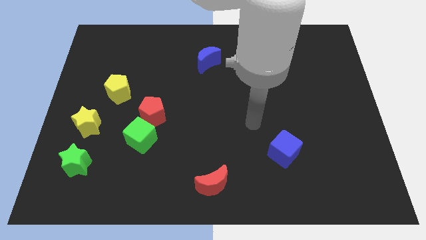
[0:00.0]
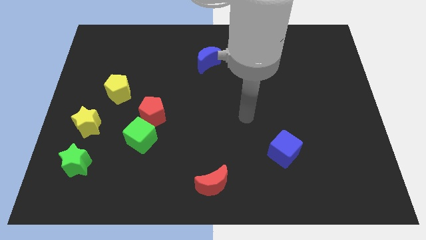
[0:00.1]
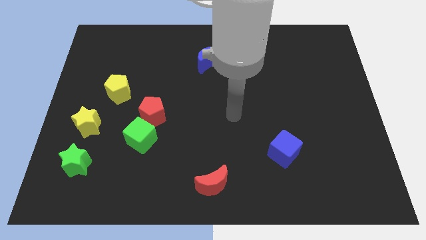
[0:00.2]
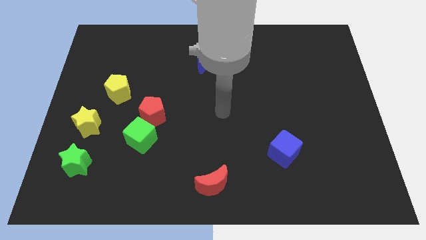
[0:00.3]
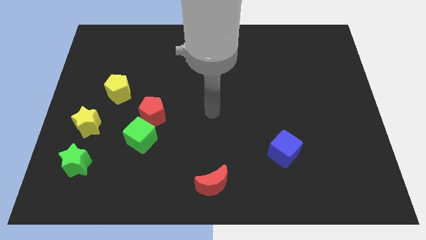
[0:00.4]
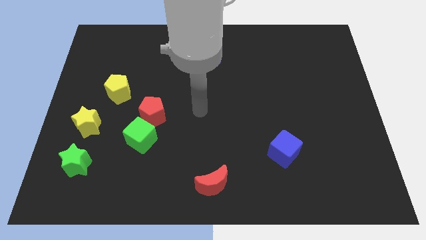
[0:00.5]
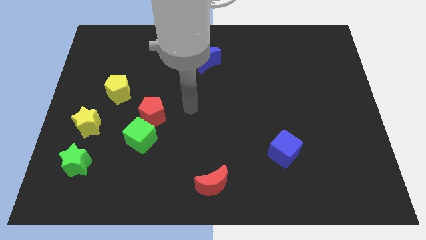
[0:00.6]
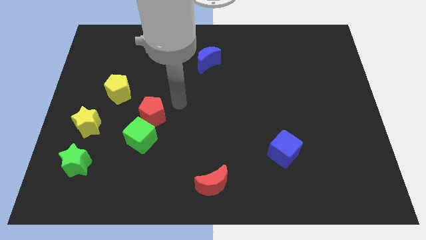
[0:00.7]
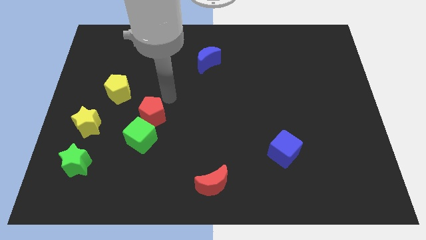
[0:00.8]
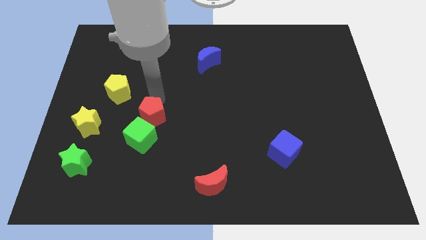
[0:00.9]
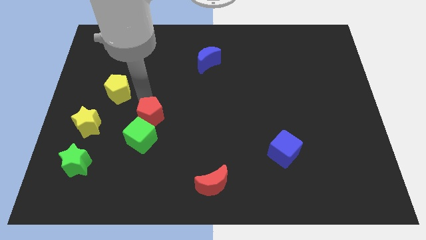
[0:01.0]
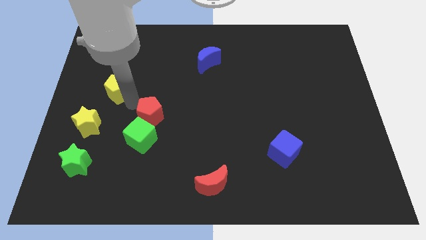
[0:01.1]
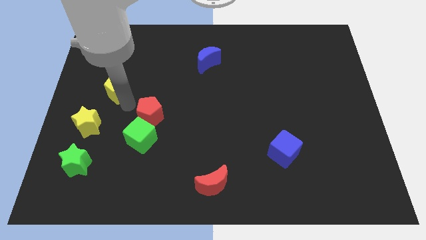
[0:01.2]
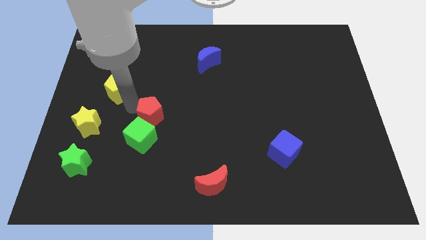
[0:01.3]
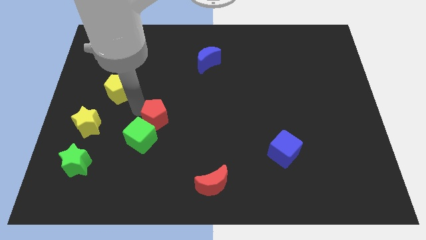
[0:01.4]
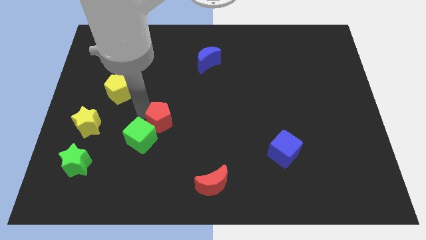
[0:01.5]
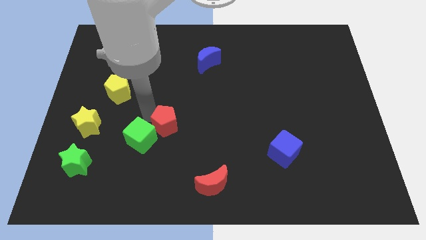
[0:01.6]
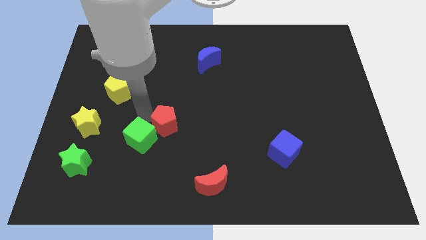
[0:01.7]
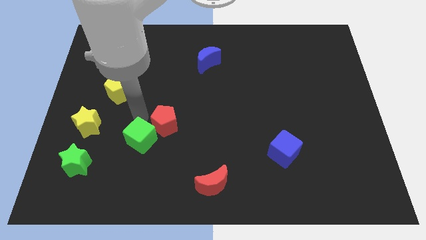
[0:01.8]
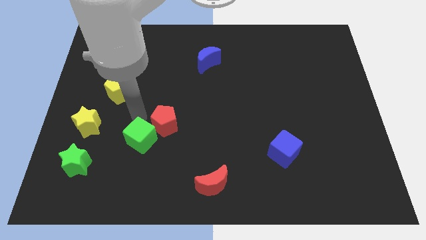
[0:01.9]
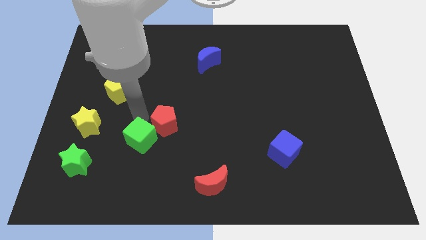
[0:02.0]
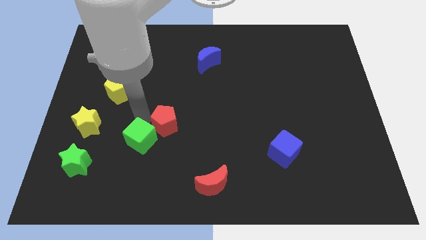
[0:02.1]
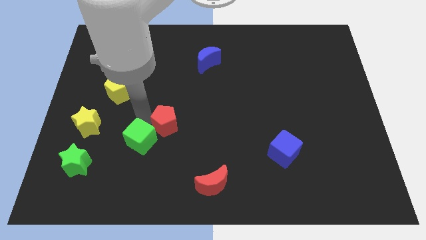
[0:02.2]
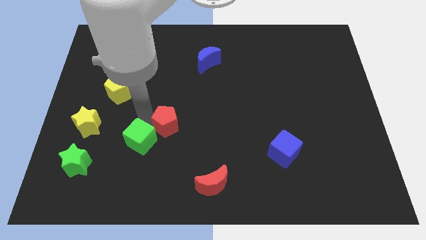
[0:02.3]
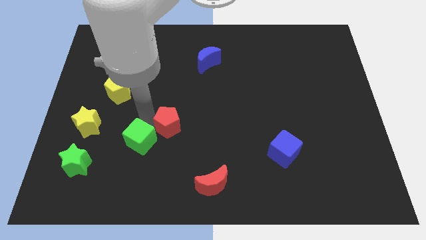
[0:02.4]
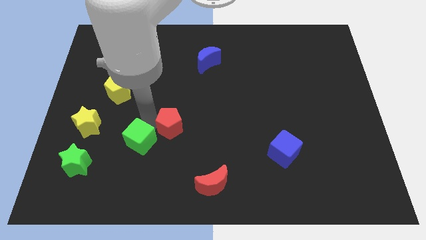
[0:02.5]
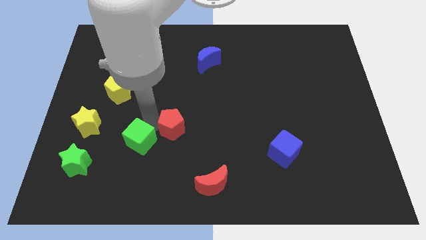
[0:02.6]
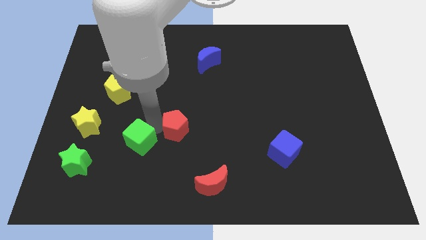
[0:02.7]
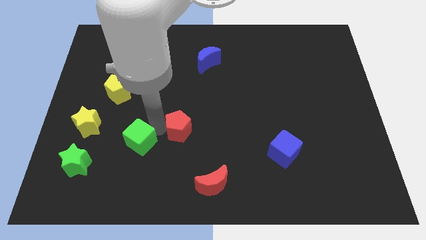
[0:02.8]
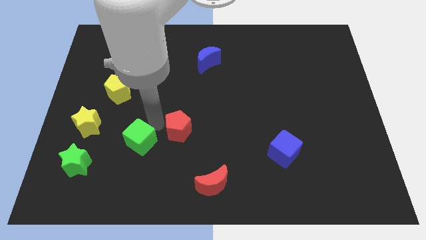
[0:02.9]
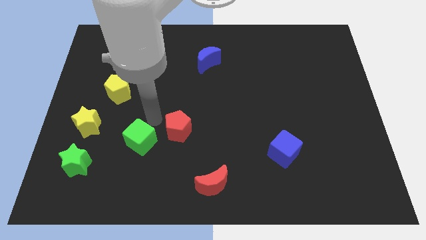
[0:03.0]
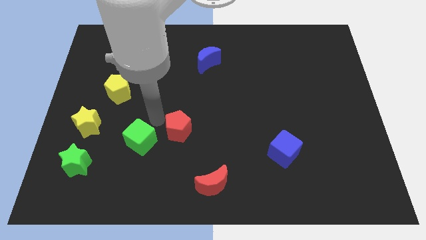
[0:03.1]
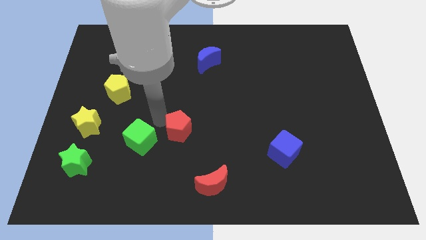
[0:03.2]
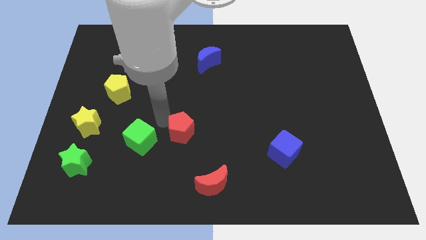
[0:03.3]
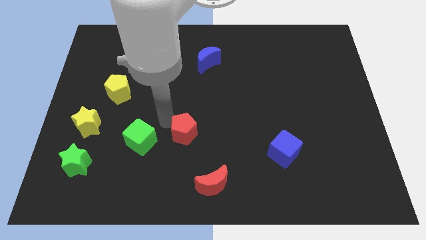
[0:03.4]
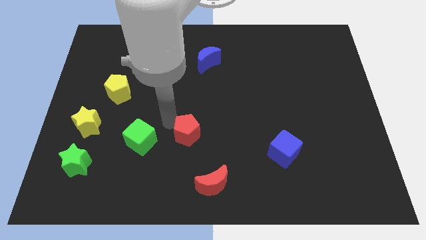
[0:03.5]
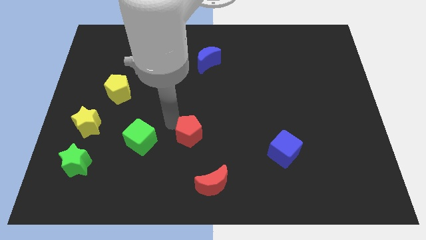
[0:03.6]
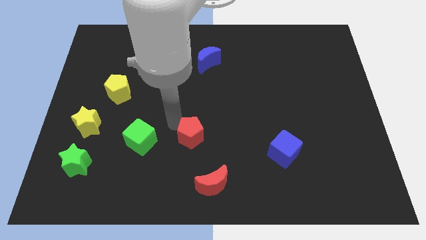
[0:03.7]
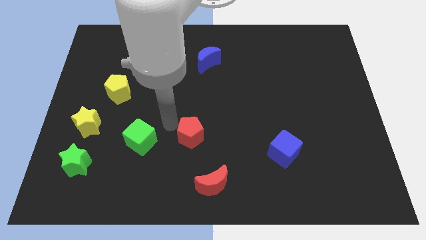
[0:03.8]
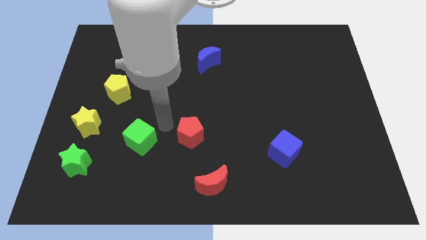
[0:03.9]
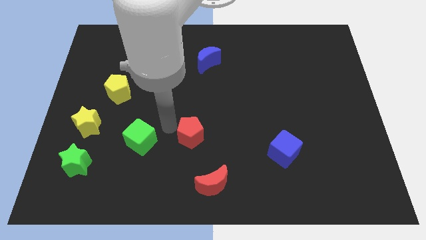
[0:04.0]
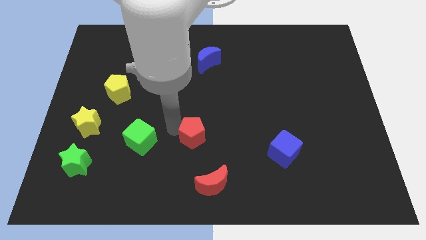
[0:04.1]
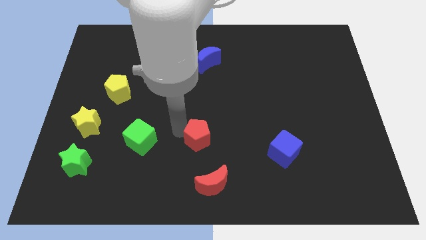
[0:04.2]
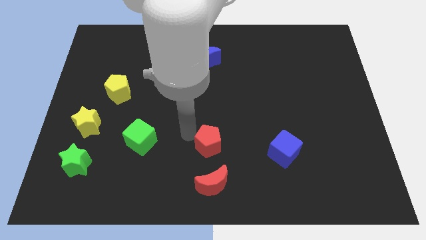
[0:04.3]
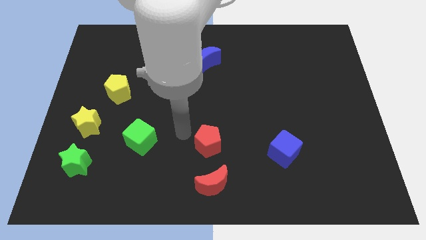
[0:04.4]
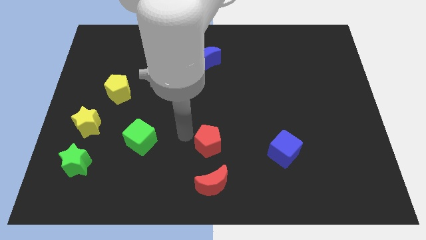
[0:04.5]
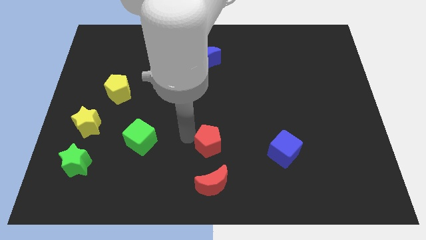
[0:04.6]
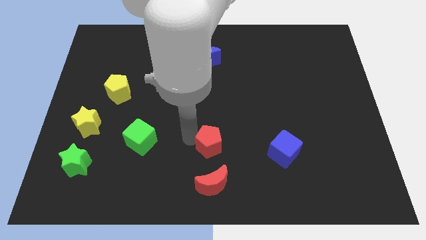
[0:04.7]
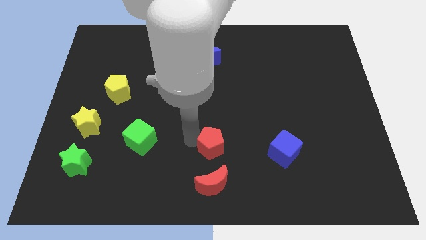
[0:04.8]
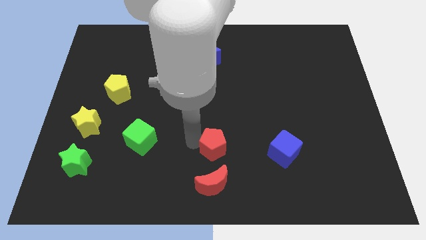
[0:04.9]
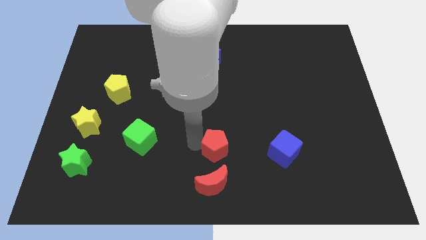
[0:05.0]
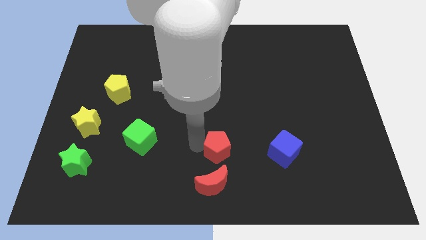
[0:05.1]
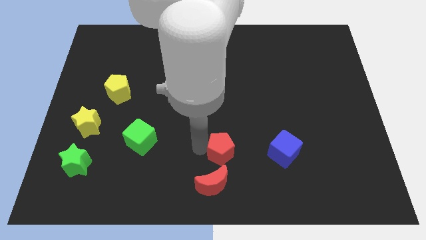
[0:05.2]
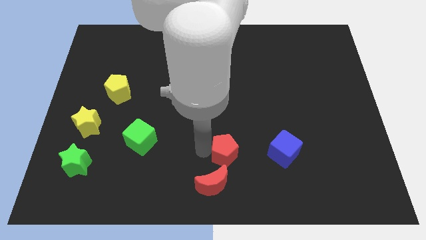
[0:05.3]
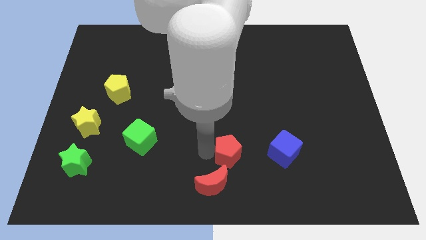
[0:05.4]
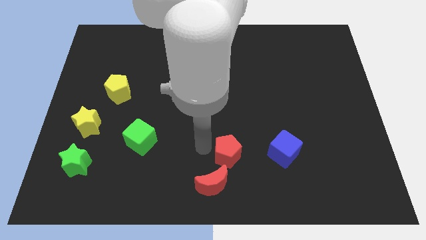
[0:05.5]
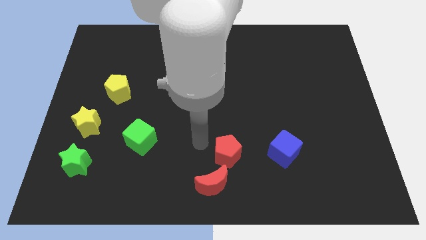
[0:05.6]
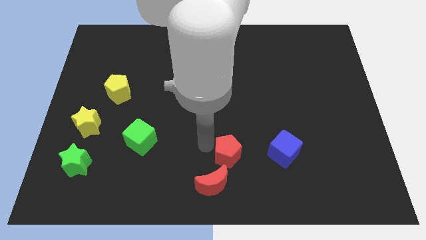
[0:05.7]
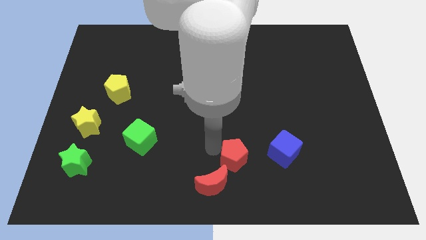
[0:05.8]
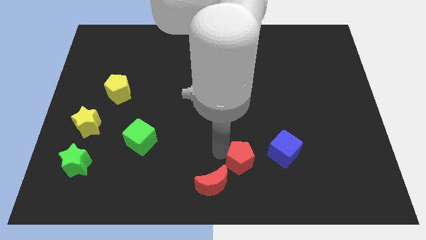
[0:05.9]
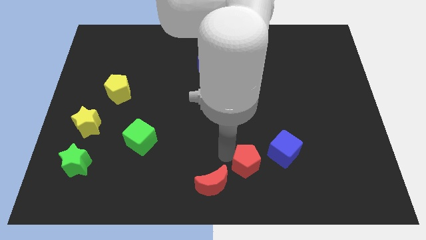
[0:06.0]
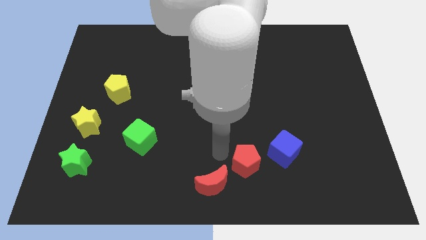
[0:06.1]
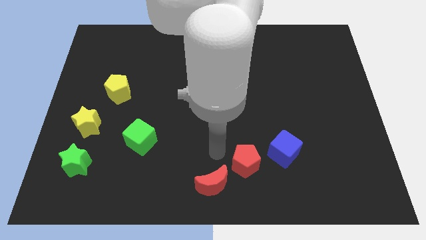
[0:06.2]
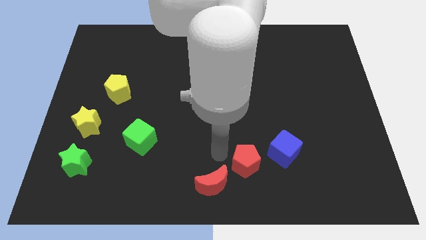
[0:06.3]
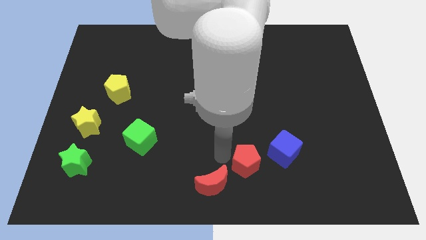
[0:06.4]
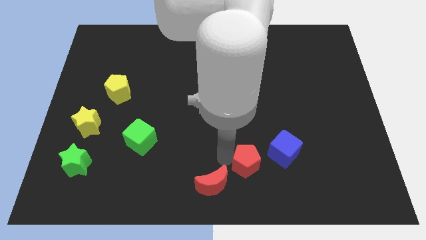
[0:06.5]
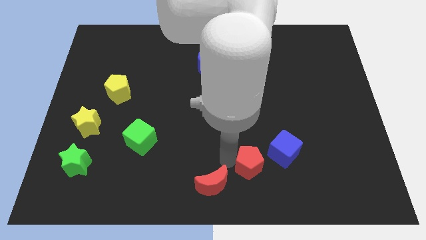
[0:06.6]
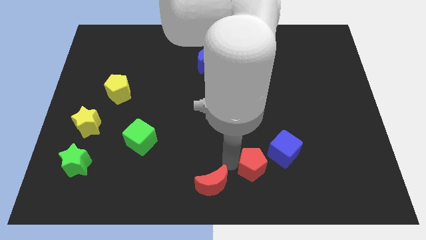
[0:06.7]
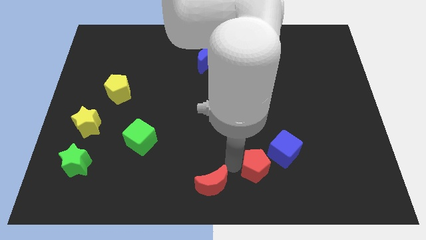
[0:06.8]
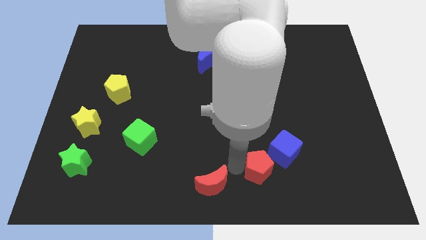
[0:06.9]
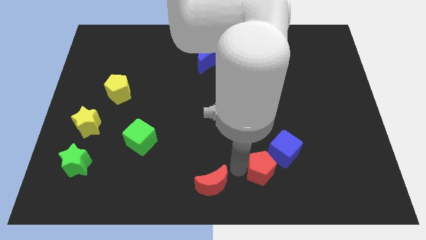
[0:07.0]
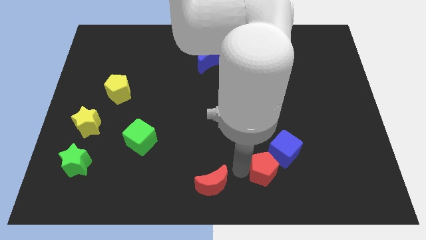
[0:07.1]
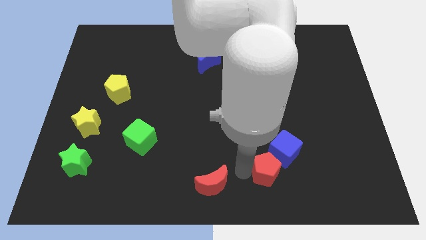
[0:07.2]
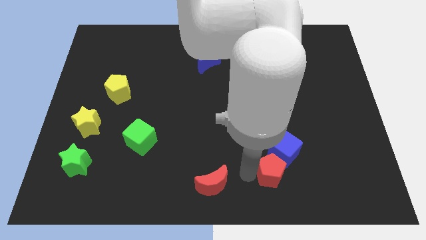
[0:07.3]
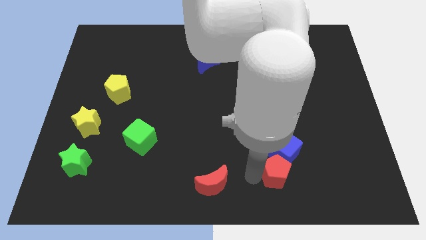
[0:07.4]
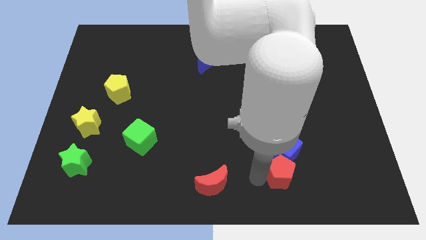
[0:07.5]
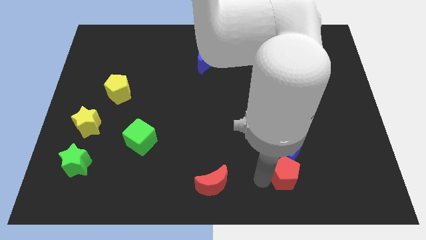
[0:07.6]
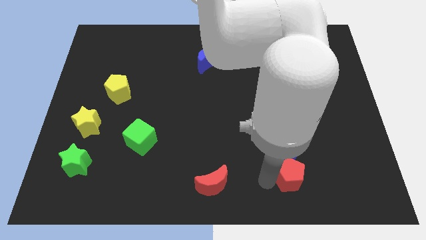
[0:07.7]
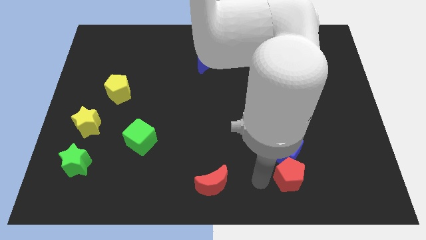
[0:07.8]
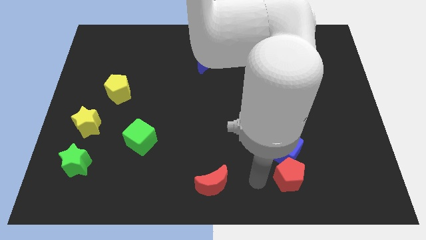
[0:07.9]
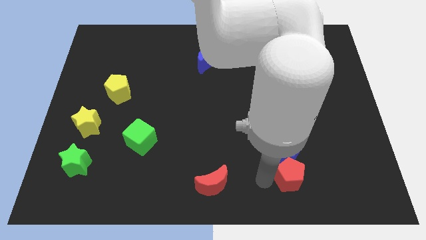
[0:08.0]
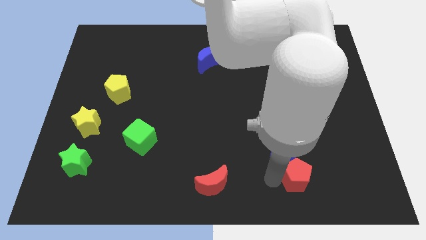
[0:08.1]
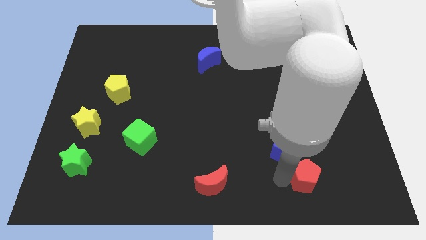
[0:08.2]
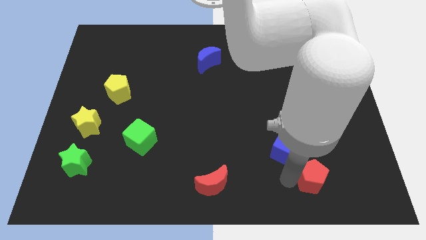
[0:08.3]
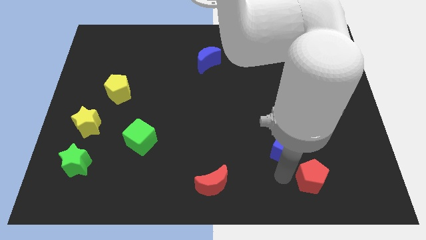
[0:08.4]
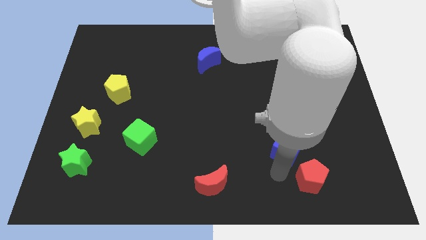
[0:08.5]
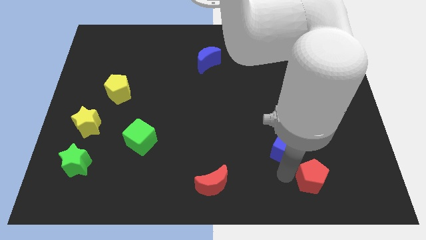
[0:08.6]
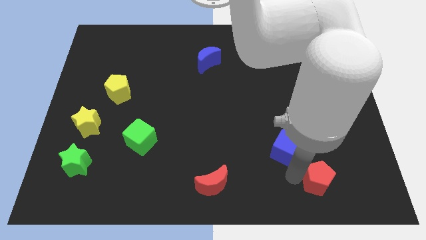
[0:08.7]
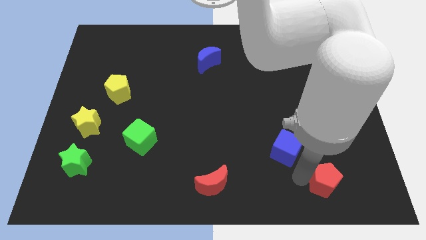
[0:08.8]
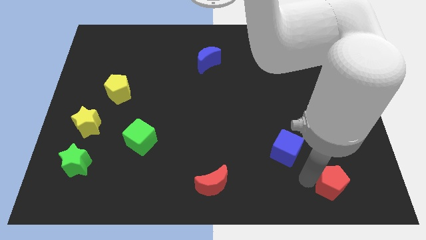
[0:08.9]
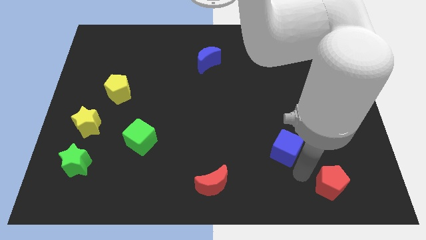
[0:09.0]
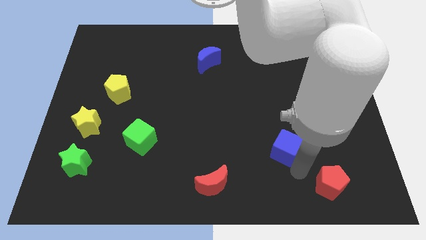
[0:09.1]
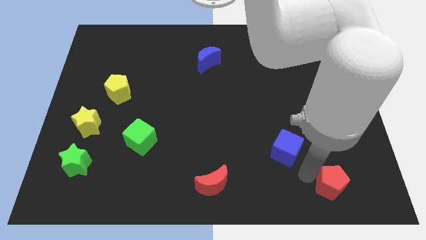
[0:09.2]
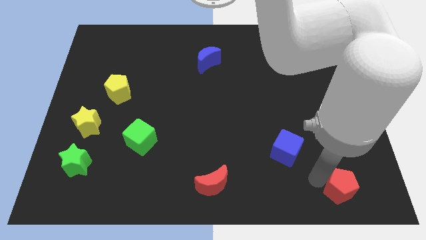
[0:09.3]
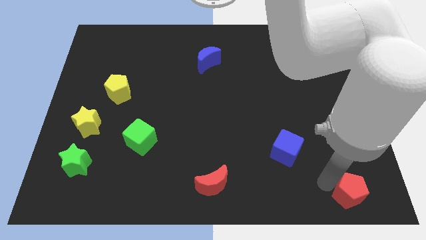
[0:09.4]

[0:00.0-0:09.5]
slide the red pentagon to the lower right corner
